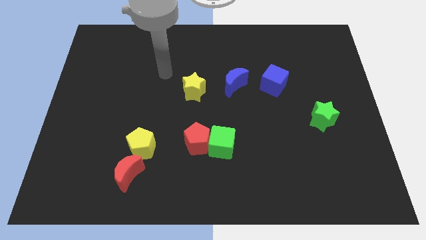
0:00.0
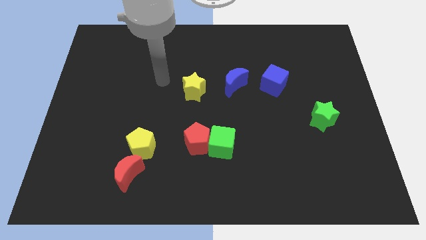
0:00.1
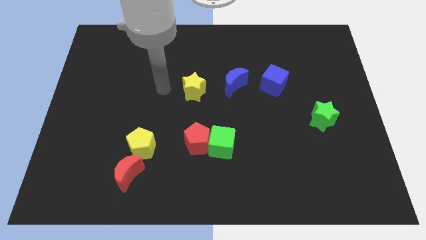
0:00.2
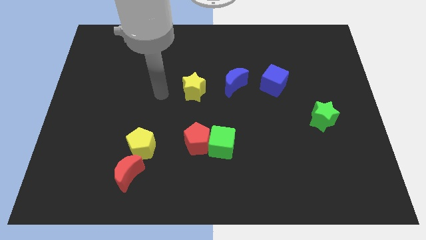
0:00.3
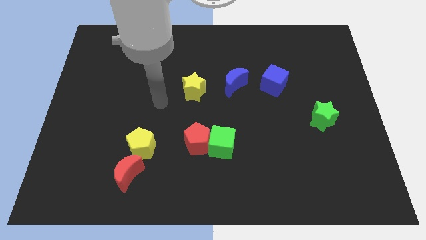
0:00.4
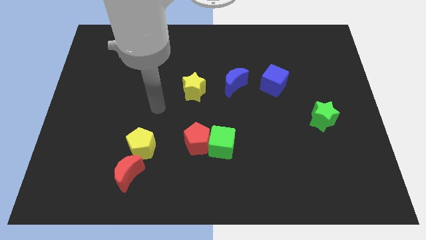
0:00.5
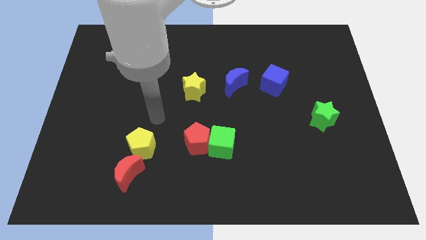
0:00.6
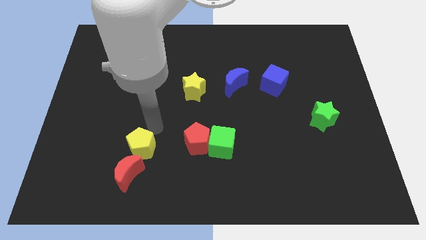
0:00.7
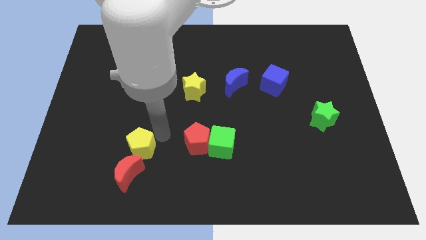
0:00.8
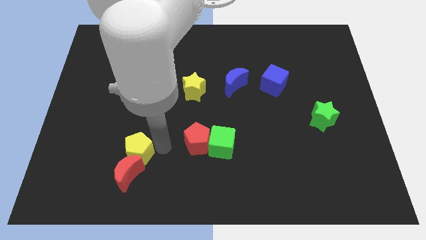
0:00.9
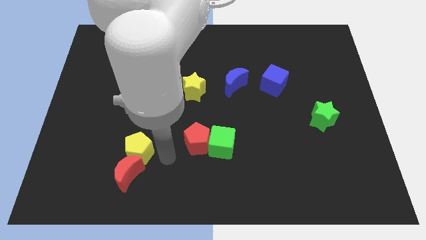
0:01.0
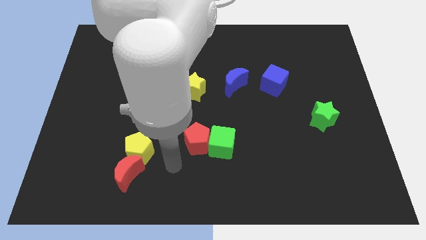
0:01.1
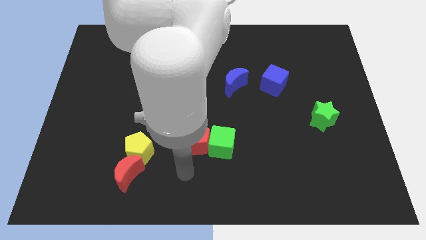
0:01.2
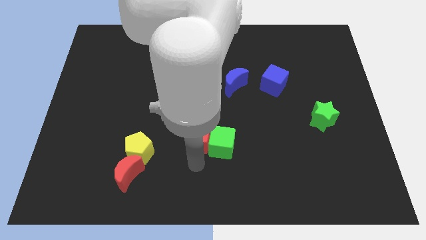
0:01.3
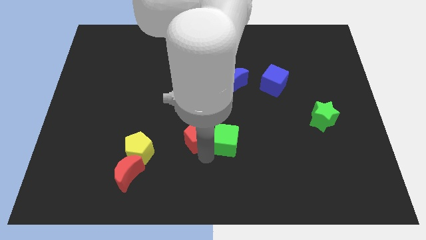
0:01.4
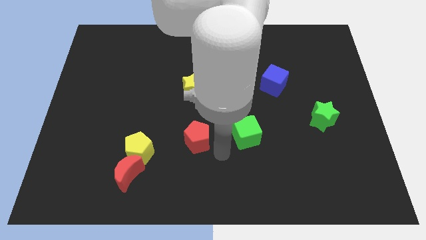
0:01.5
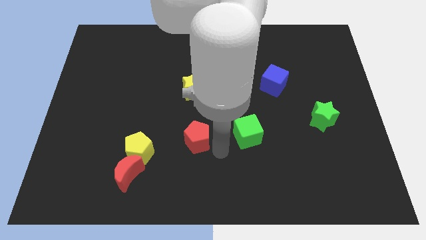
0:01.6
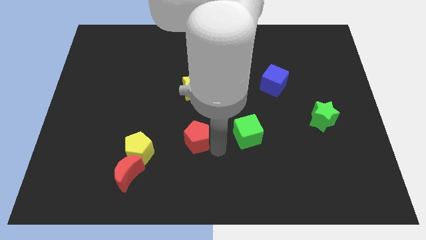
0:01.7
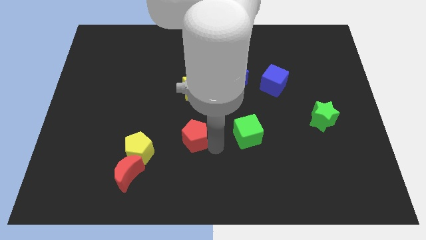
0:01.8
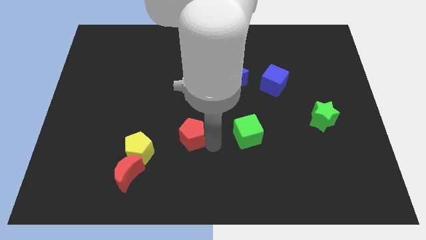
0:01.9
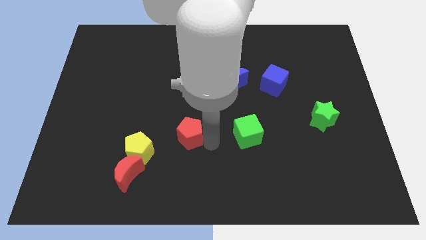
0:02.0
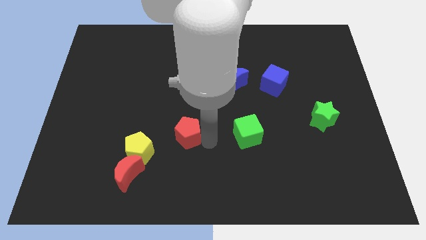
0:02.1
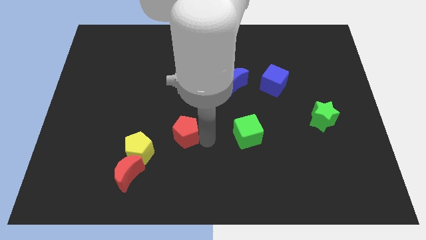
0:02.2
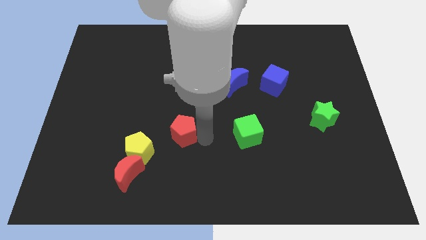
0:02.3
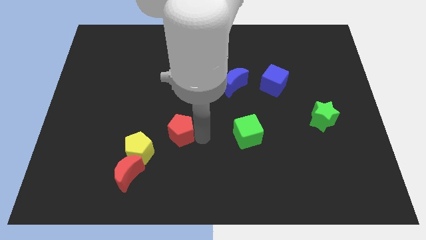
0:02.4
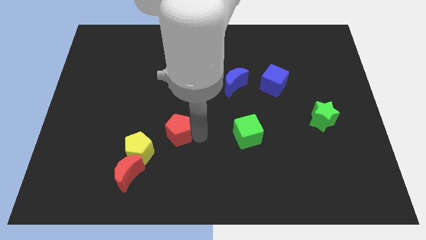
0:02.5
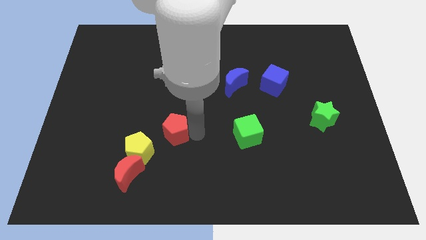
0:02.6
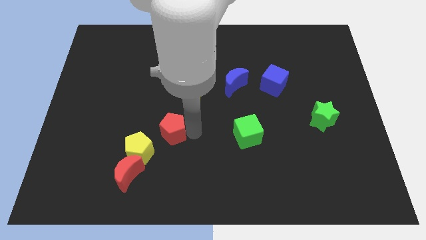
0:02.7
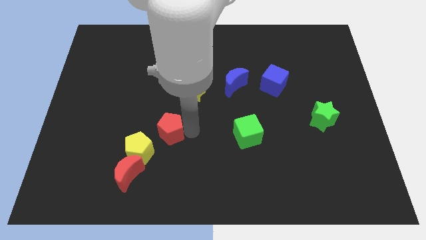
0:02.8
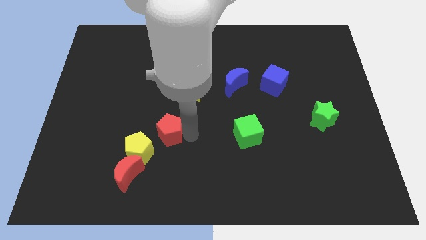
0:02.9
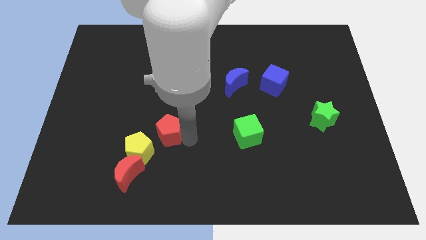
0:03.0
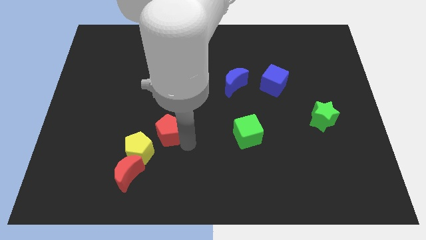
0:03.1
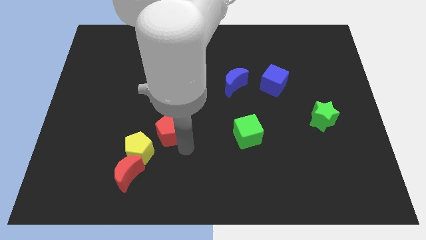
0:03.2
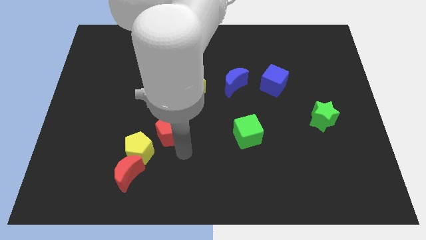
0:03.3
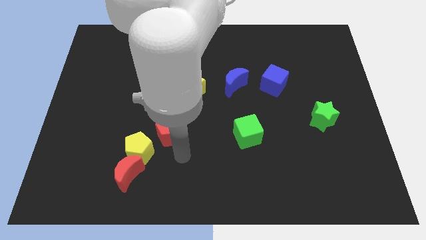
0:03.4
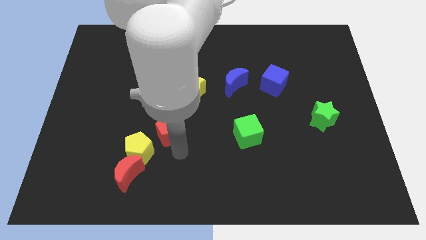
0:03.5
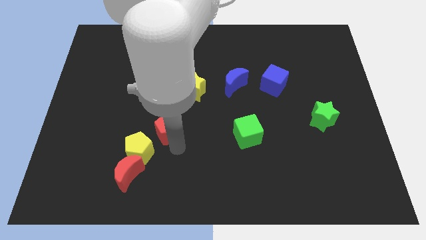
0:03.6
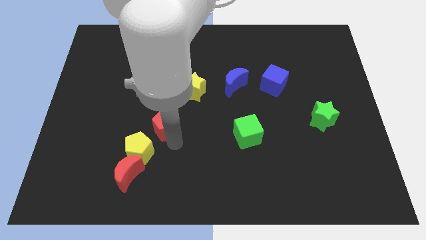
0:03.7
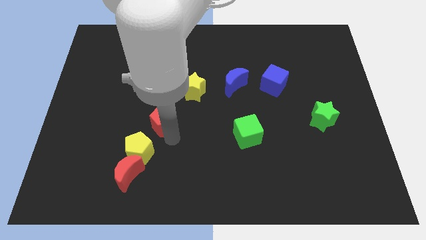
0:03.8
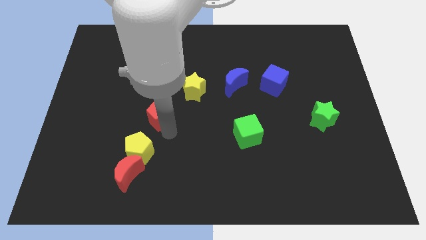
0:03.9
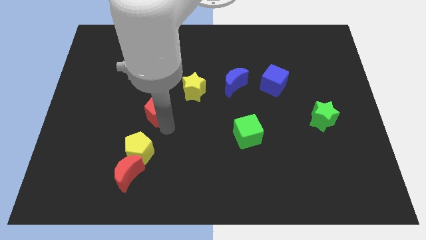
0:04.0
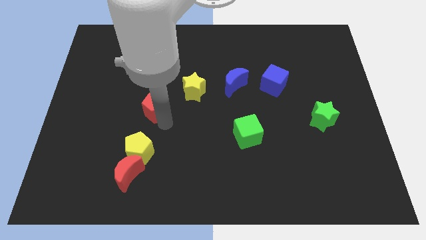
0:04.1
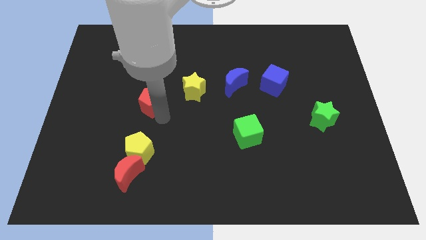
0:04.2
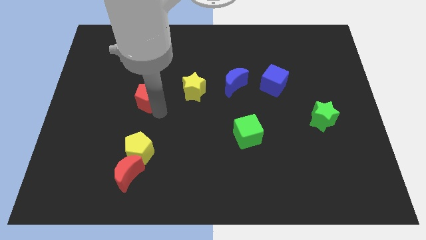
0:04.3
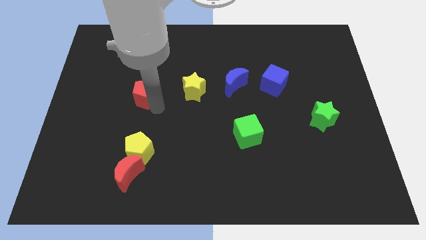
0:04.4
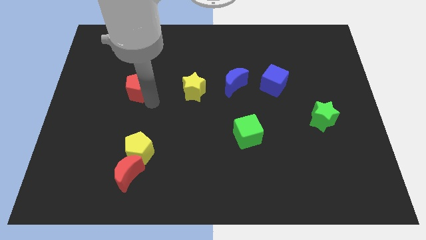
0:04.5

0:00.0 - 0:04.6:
push the red pentagon diagonally up and left

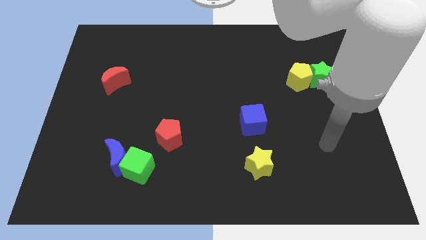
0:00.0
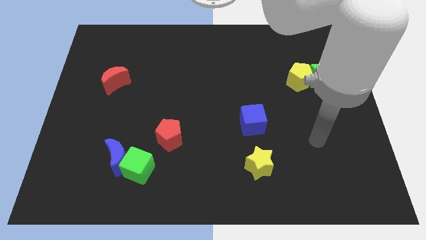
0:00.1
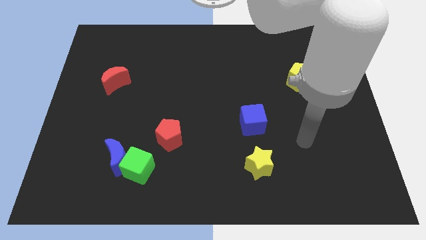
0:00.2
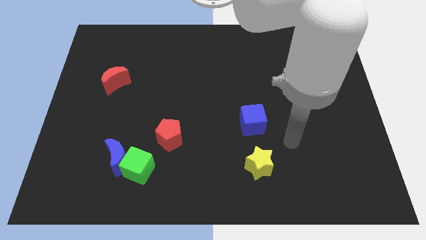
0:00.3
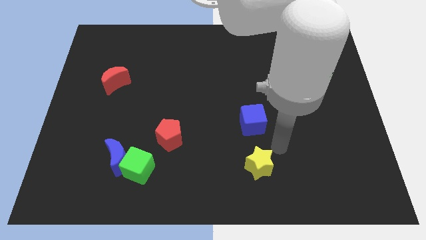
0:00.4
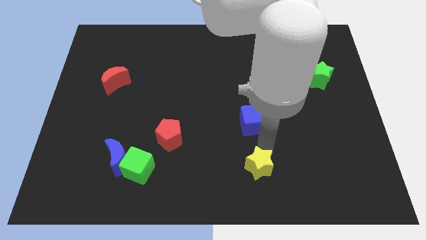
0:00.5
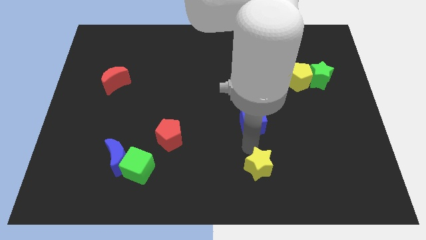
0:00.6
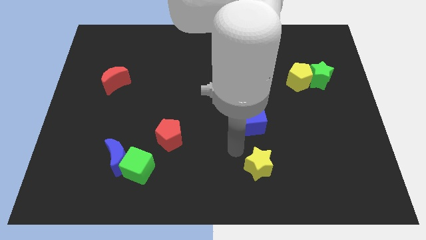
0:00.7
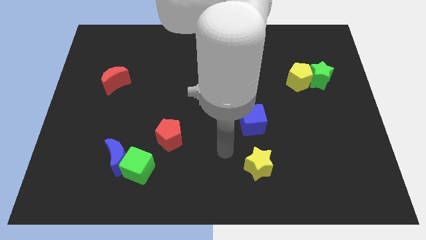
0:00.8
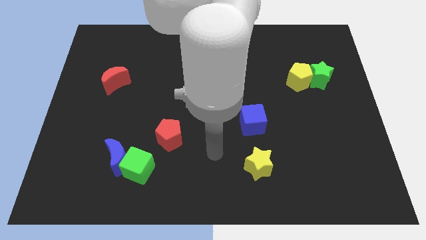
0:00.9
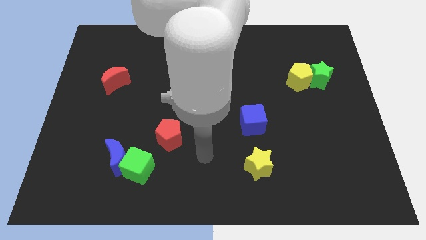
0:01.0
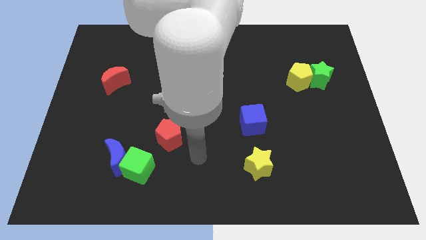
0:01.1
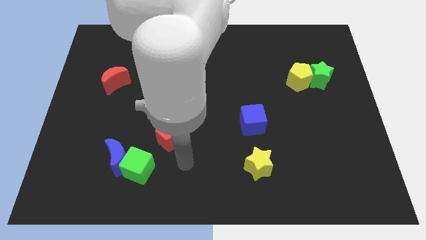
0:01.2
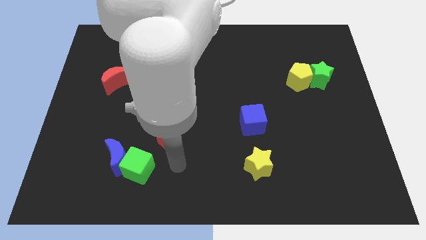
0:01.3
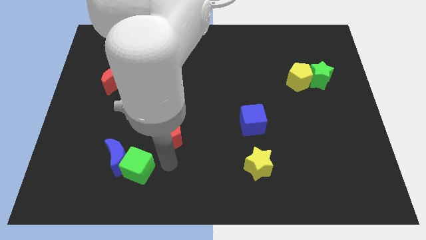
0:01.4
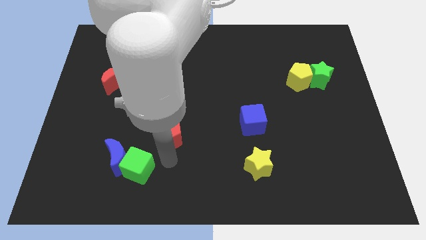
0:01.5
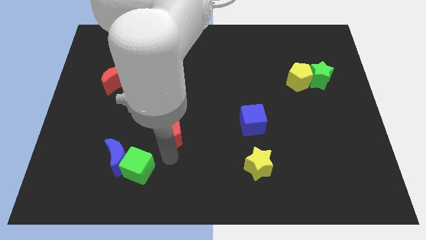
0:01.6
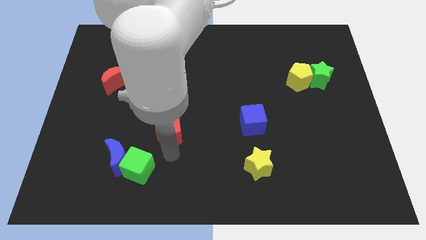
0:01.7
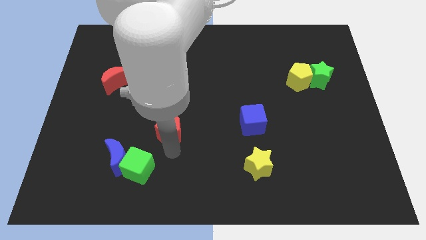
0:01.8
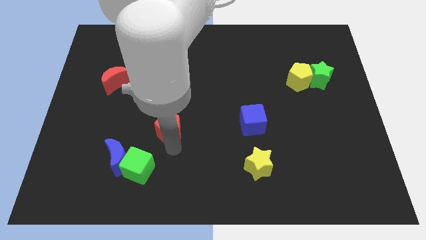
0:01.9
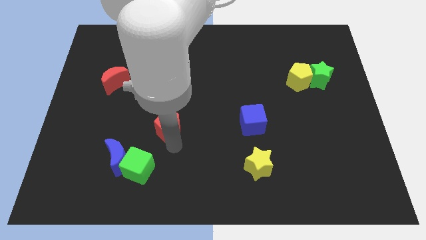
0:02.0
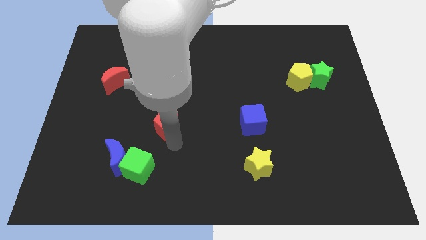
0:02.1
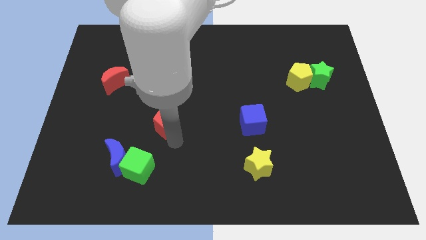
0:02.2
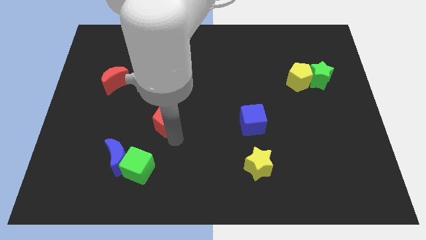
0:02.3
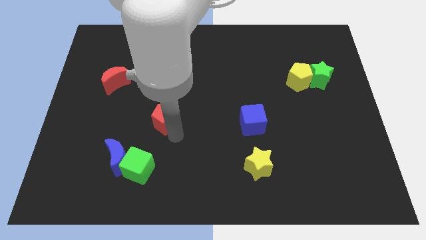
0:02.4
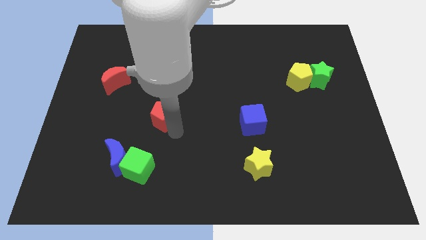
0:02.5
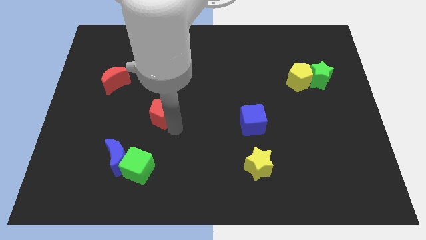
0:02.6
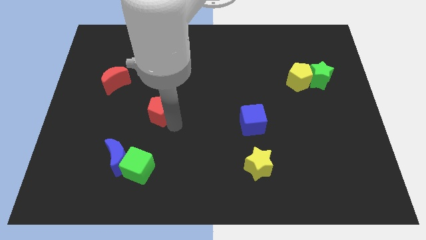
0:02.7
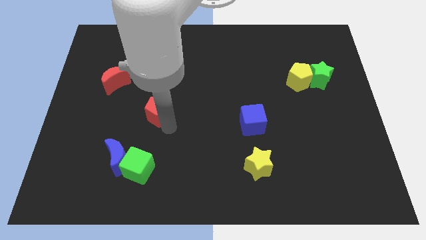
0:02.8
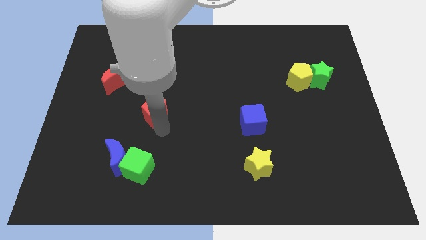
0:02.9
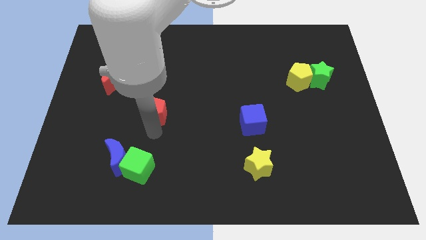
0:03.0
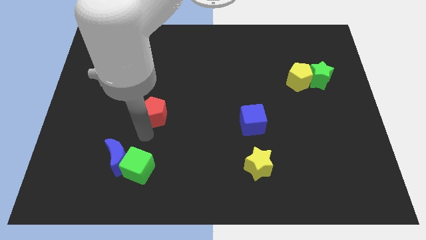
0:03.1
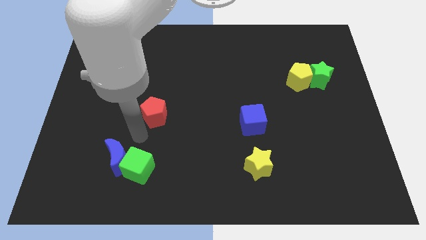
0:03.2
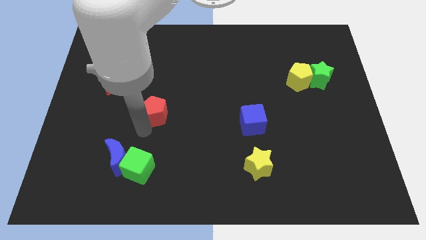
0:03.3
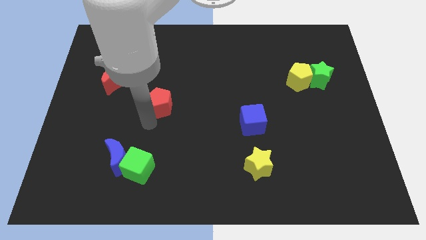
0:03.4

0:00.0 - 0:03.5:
push the red pentagon slightly upwards
